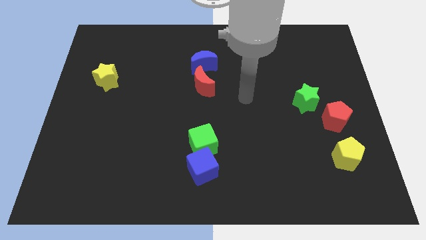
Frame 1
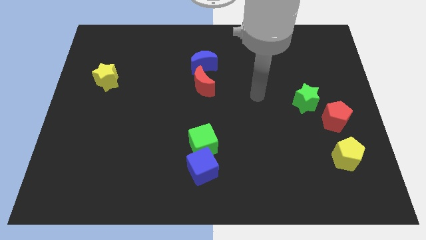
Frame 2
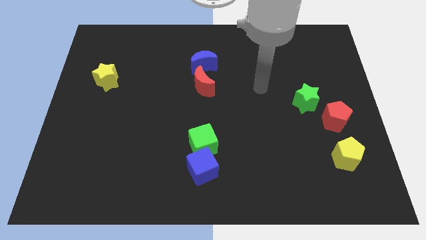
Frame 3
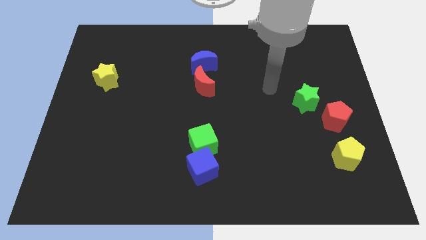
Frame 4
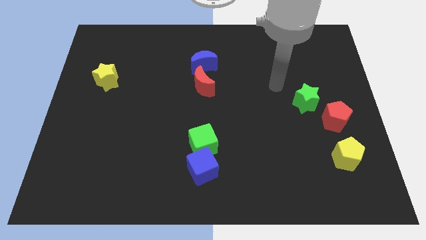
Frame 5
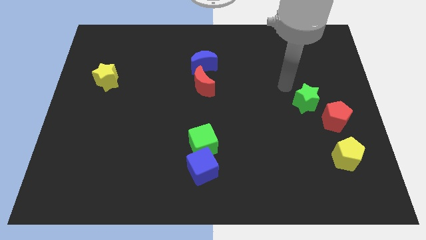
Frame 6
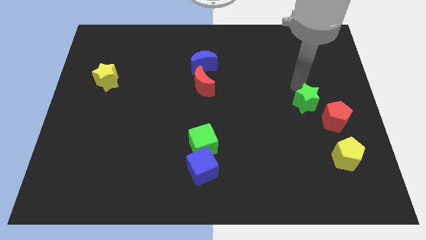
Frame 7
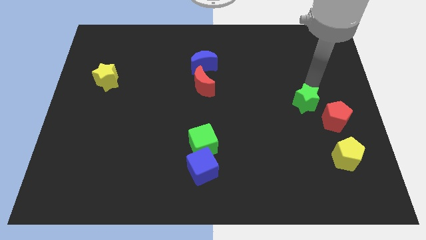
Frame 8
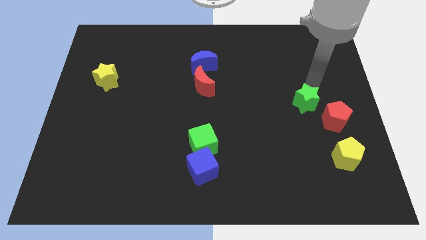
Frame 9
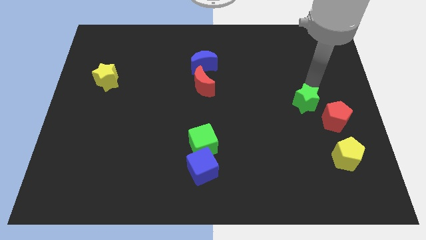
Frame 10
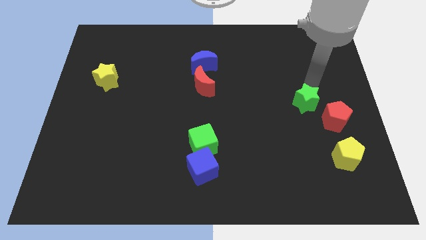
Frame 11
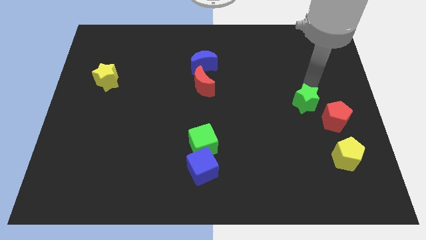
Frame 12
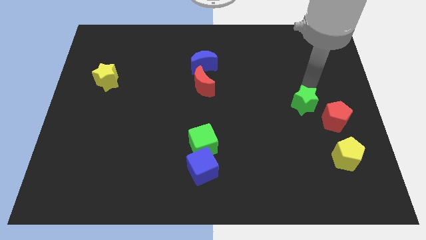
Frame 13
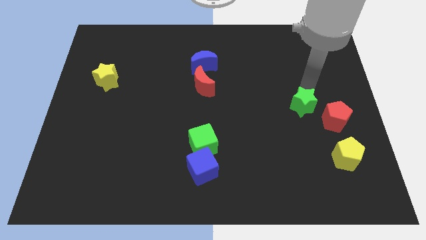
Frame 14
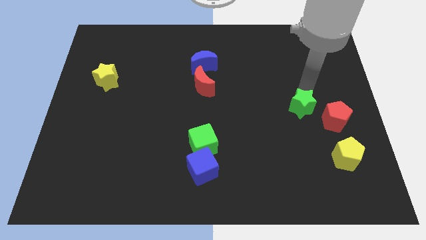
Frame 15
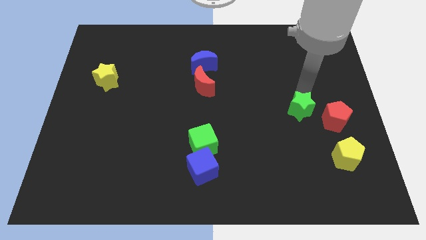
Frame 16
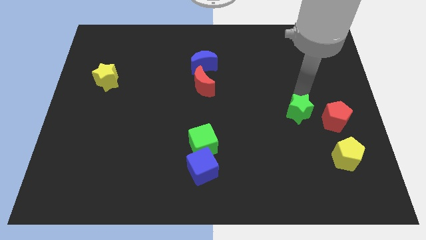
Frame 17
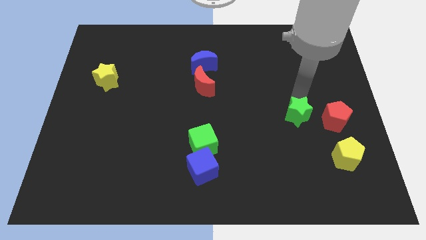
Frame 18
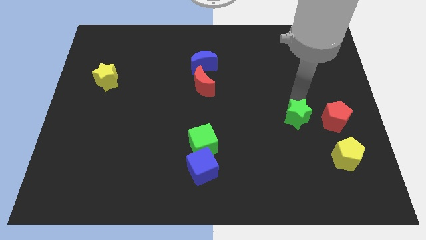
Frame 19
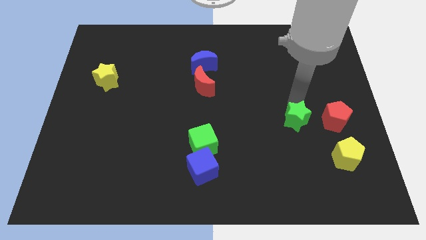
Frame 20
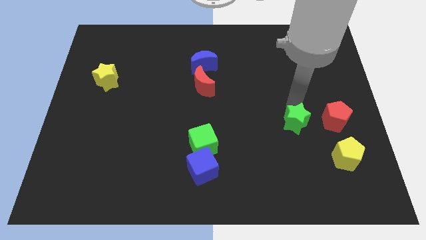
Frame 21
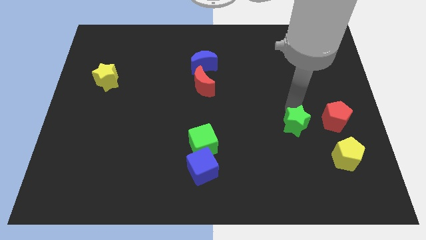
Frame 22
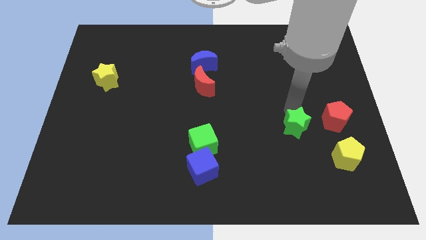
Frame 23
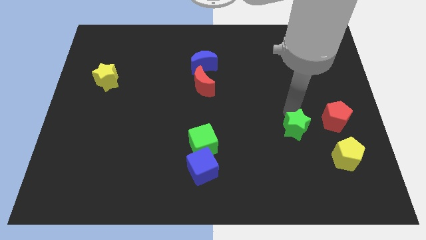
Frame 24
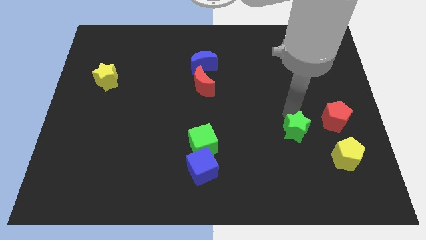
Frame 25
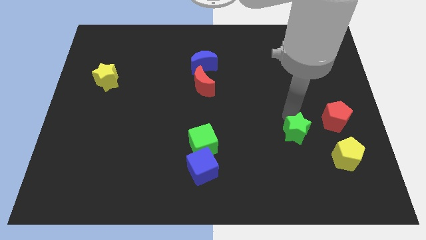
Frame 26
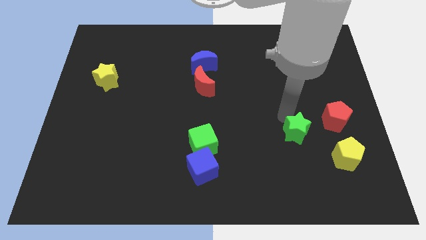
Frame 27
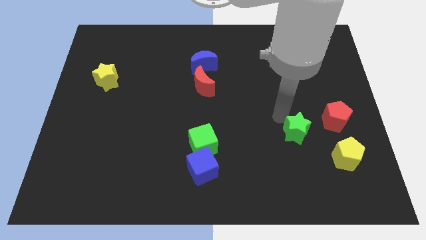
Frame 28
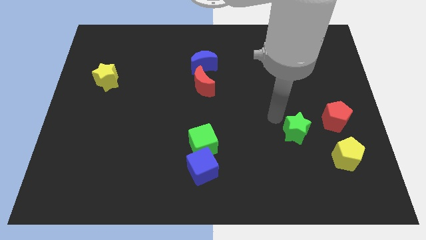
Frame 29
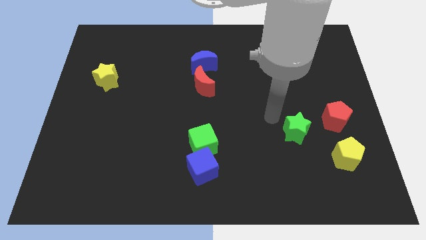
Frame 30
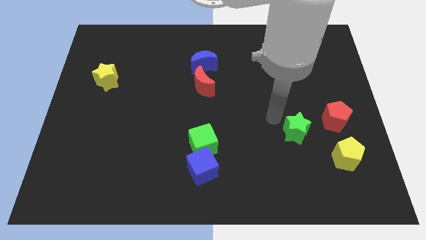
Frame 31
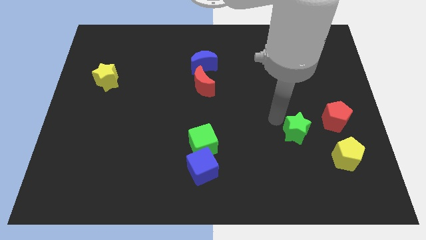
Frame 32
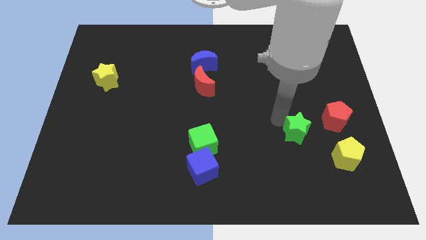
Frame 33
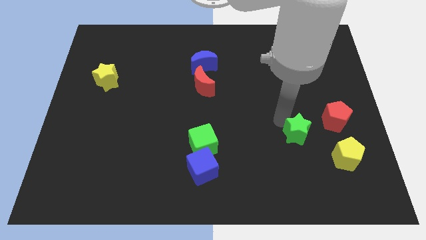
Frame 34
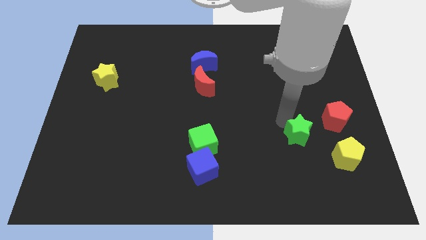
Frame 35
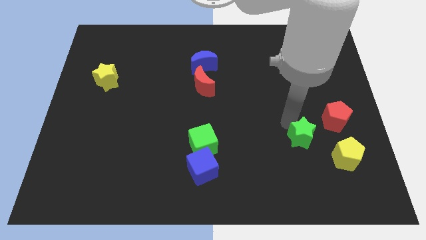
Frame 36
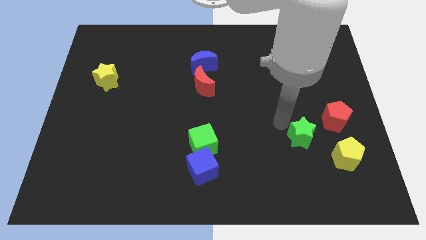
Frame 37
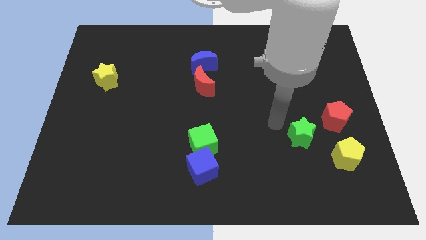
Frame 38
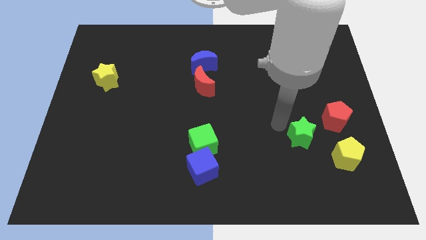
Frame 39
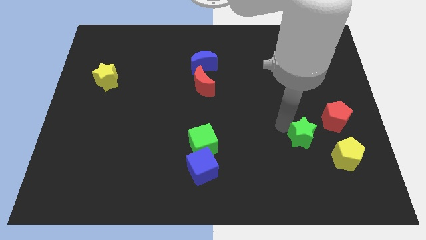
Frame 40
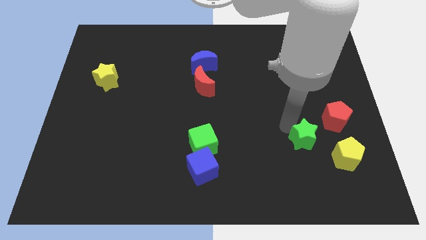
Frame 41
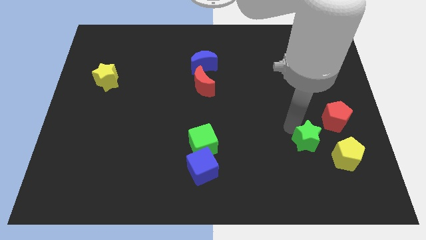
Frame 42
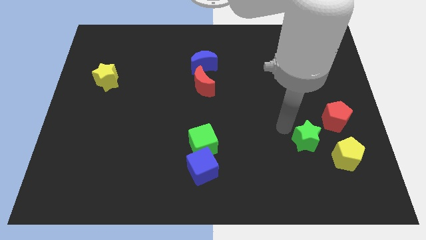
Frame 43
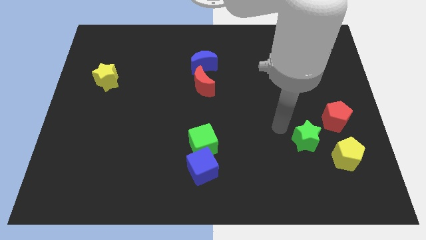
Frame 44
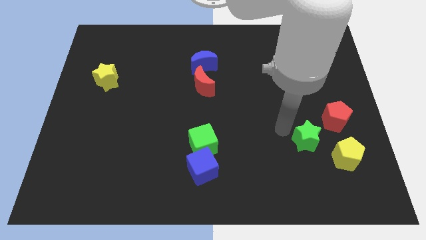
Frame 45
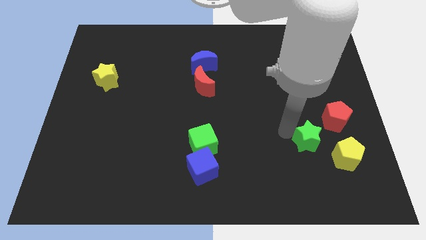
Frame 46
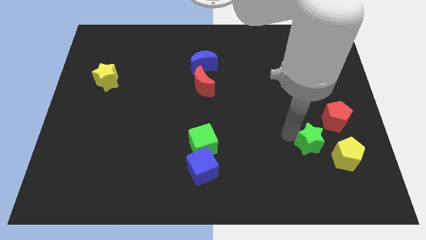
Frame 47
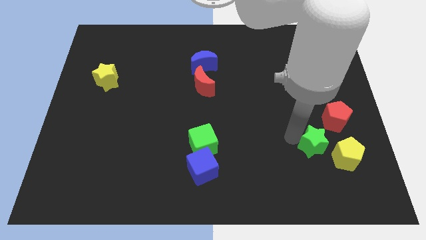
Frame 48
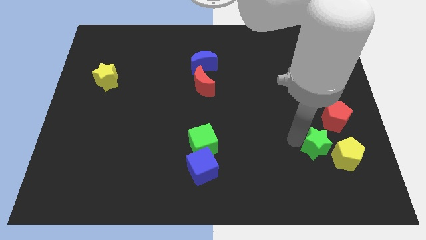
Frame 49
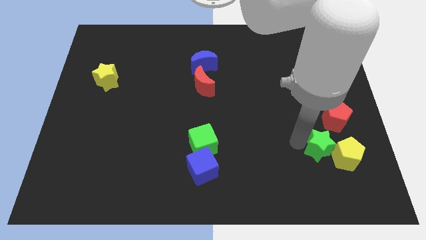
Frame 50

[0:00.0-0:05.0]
put the green star close to the yellow pentagon

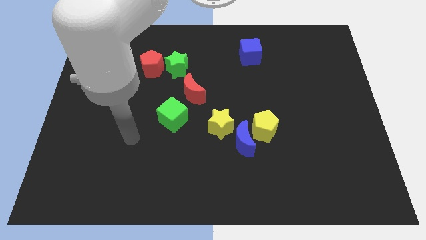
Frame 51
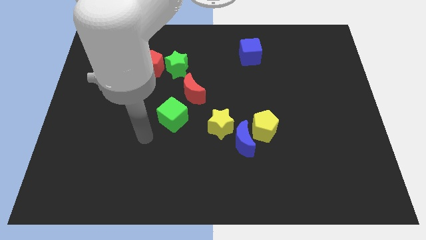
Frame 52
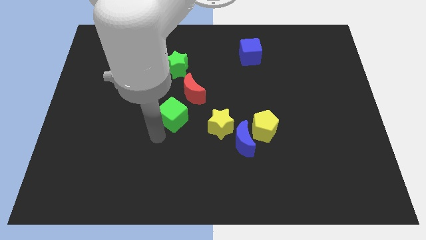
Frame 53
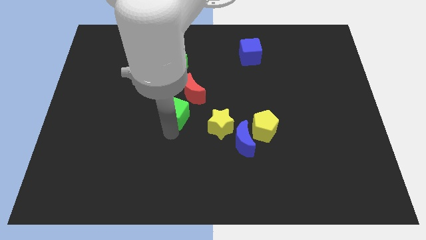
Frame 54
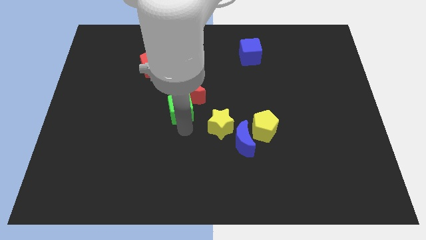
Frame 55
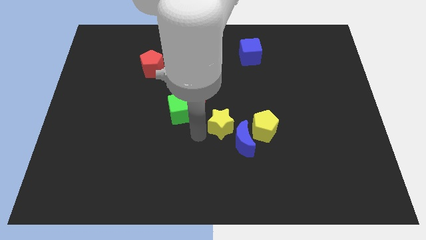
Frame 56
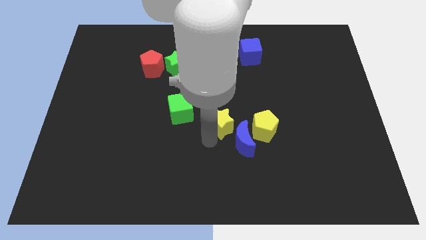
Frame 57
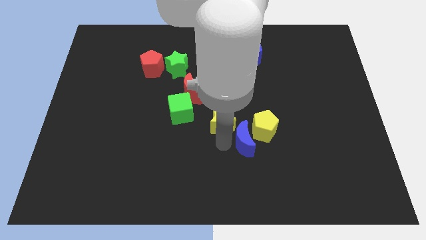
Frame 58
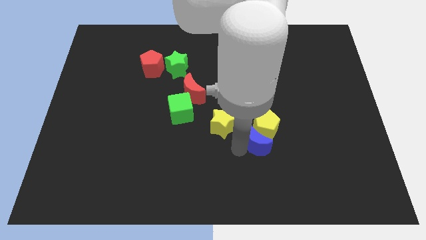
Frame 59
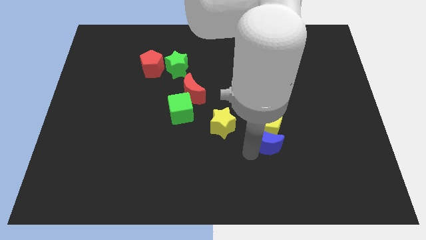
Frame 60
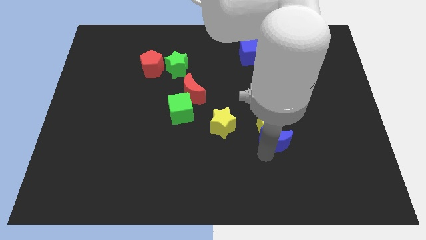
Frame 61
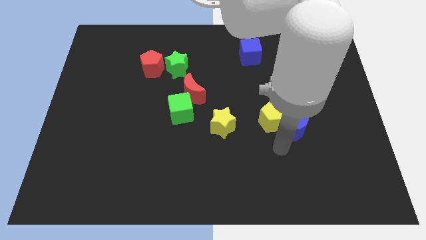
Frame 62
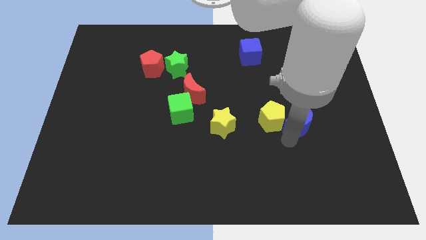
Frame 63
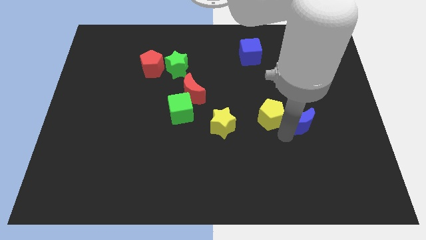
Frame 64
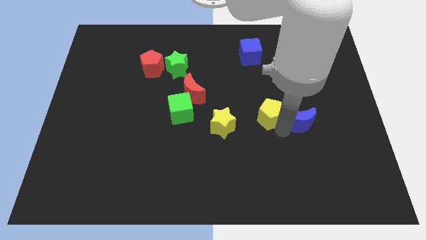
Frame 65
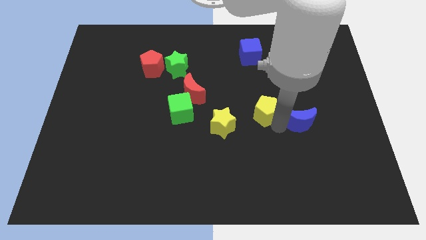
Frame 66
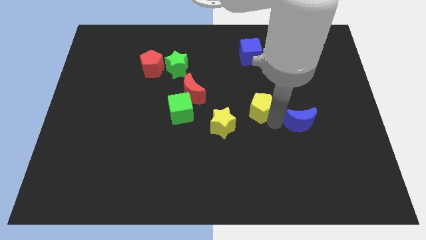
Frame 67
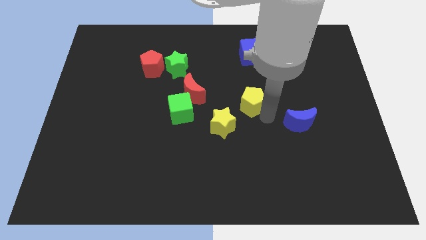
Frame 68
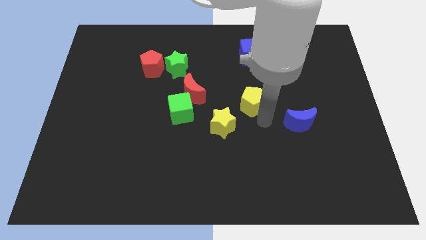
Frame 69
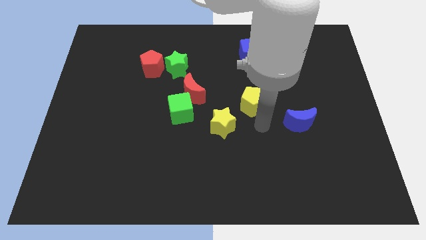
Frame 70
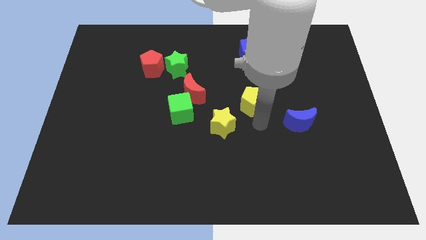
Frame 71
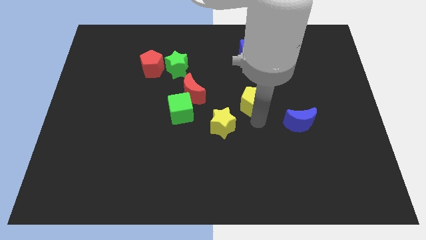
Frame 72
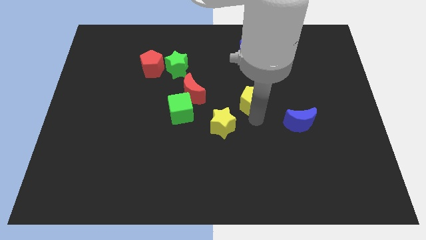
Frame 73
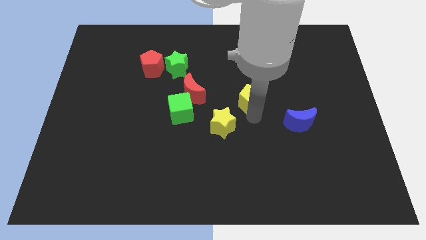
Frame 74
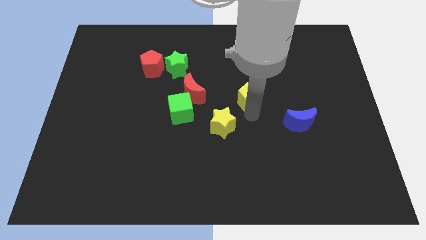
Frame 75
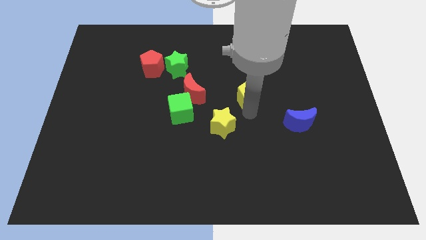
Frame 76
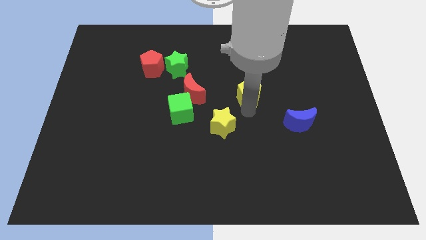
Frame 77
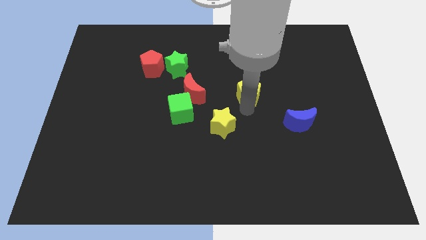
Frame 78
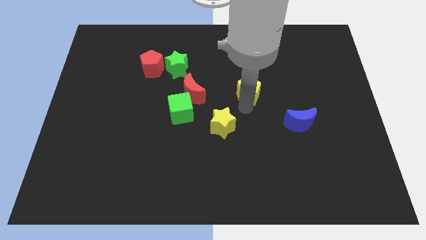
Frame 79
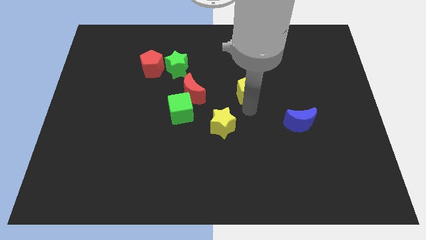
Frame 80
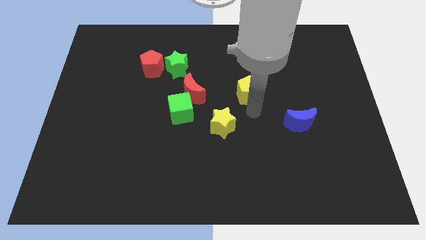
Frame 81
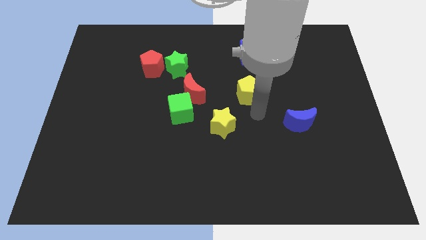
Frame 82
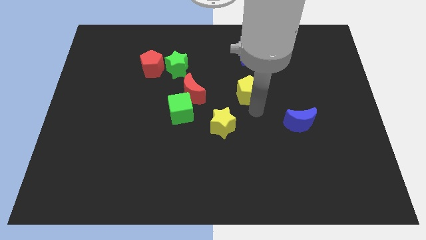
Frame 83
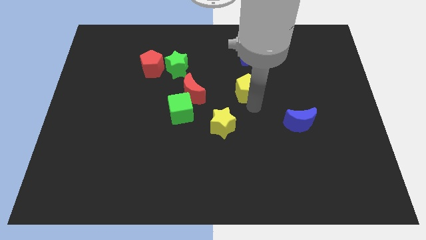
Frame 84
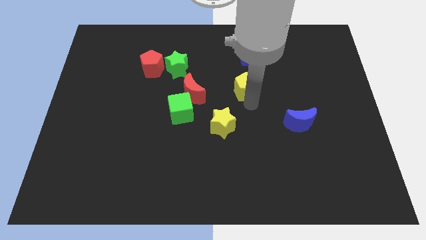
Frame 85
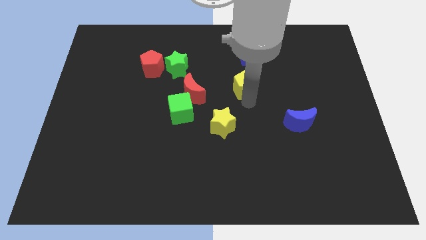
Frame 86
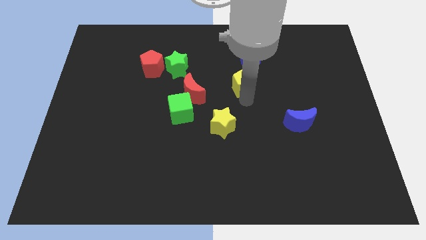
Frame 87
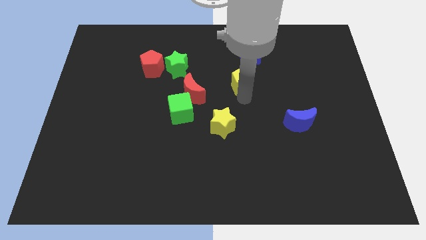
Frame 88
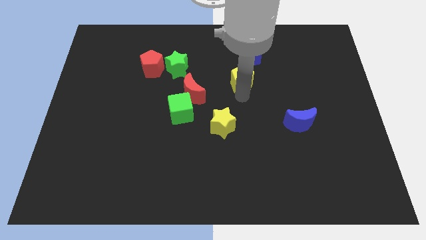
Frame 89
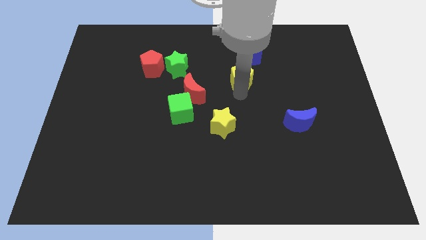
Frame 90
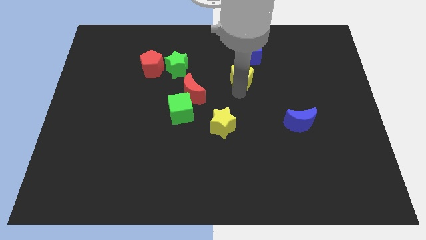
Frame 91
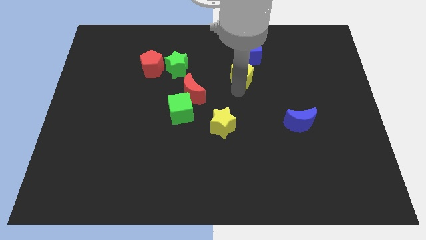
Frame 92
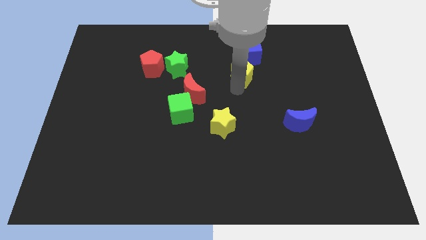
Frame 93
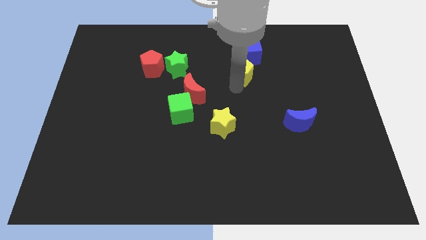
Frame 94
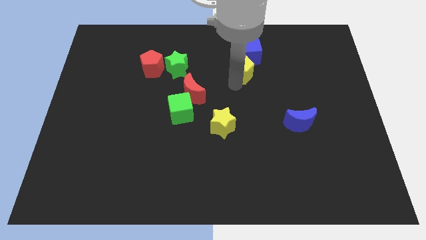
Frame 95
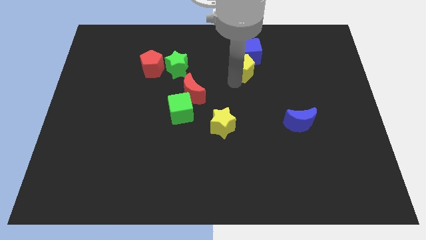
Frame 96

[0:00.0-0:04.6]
put the yellow pentagon next to the blue cube
